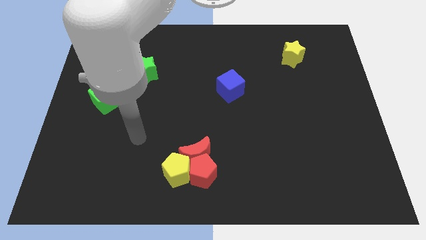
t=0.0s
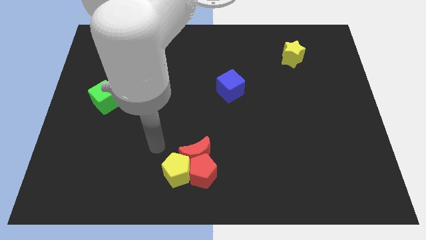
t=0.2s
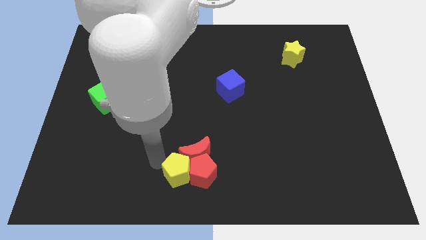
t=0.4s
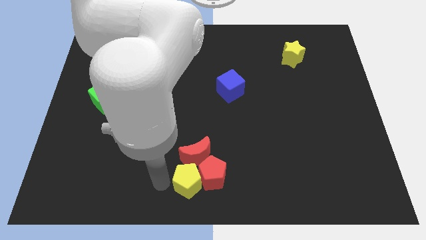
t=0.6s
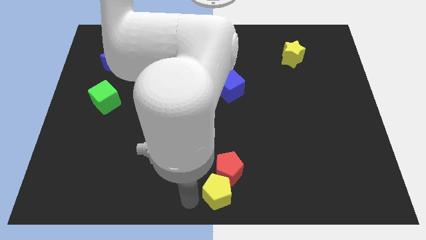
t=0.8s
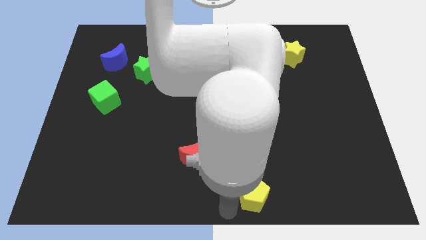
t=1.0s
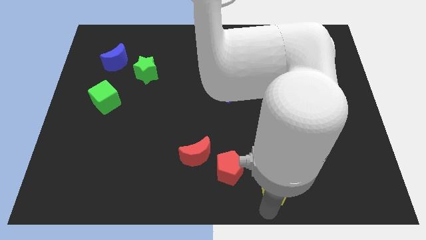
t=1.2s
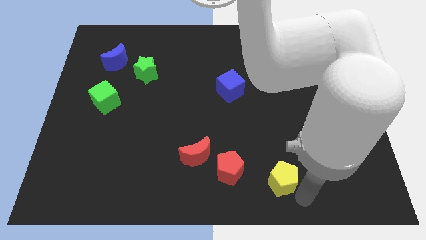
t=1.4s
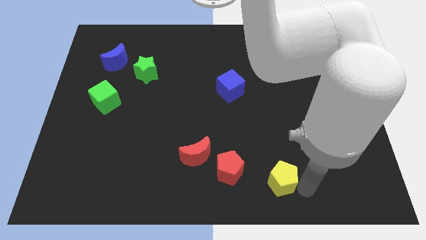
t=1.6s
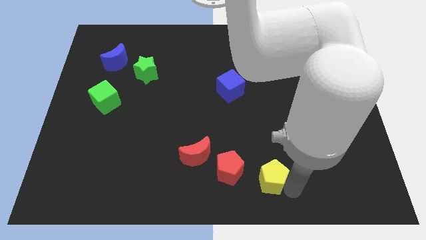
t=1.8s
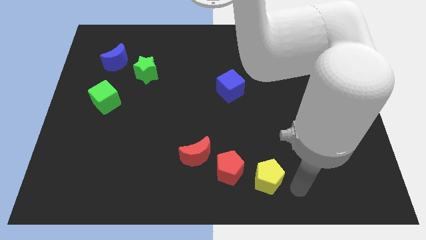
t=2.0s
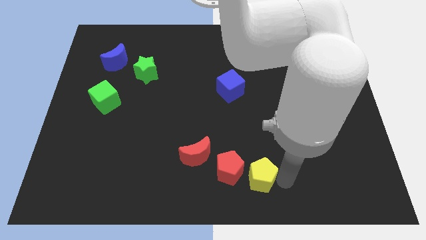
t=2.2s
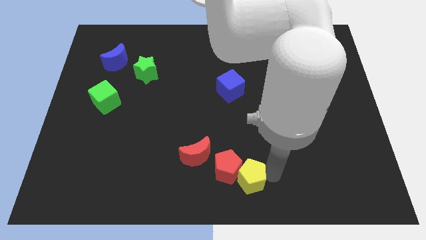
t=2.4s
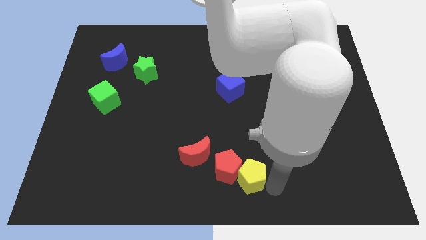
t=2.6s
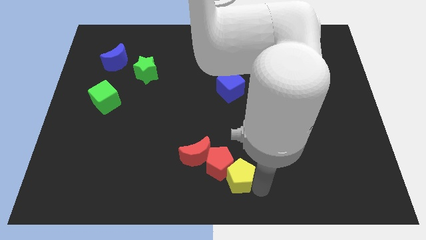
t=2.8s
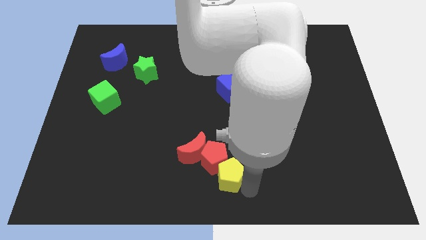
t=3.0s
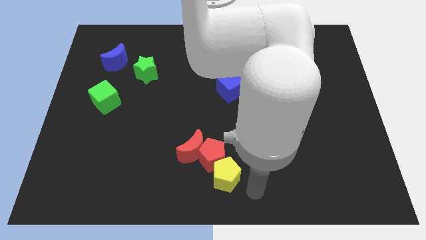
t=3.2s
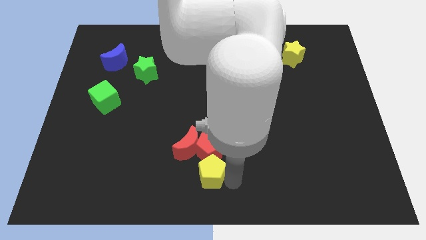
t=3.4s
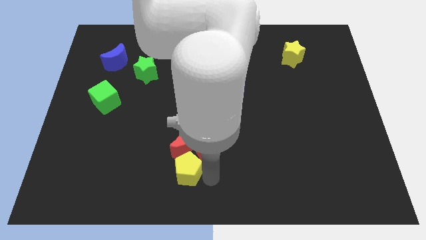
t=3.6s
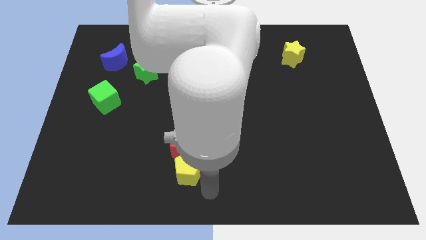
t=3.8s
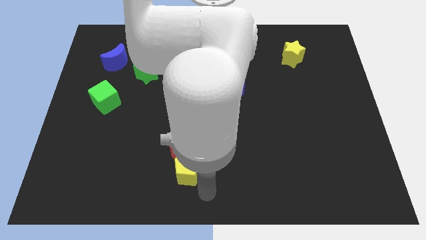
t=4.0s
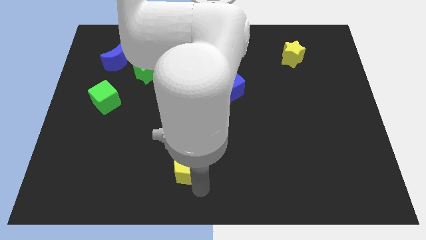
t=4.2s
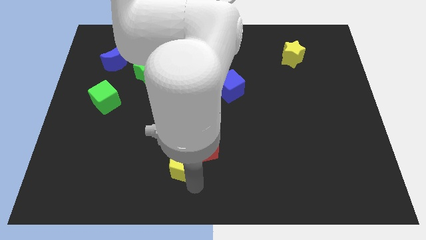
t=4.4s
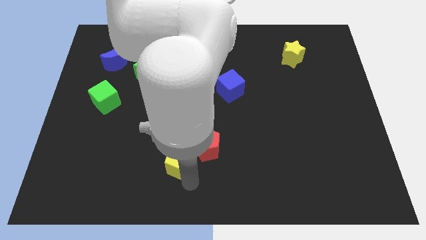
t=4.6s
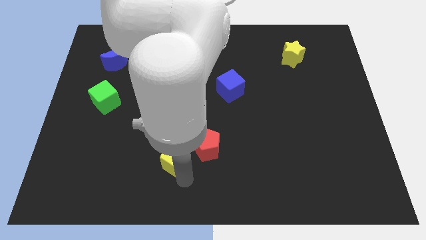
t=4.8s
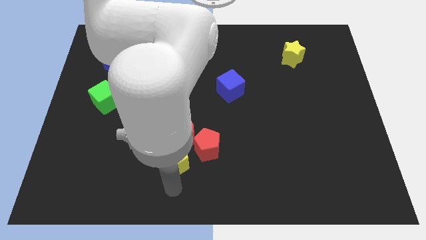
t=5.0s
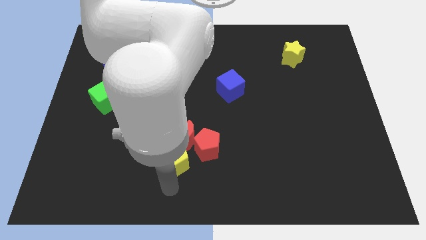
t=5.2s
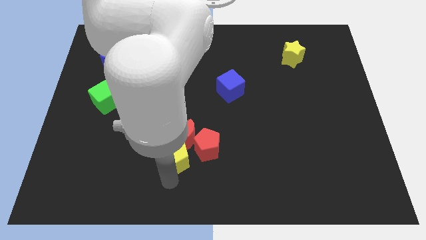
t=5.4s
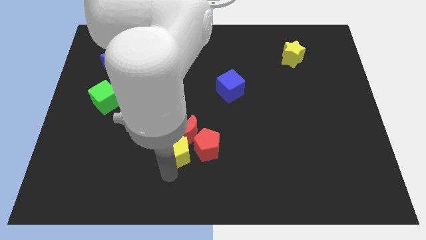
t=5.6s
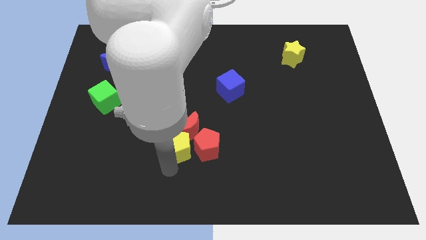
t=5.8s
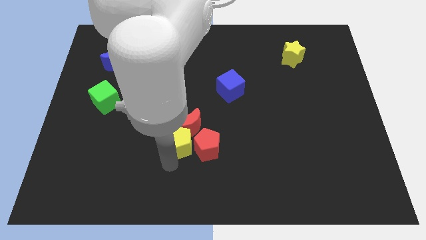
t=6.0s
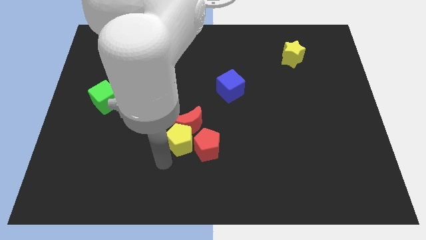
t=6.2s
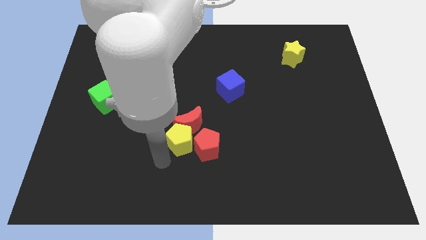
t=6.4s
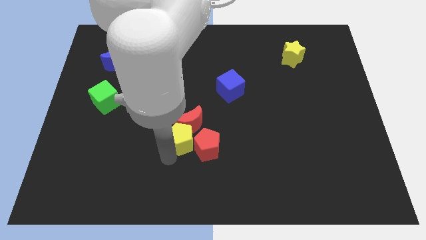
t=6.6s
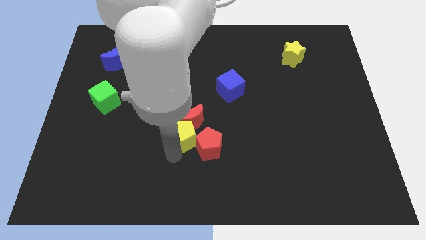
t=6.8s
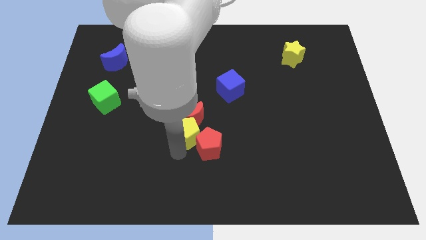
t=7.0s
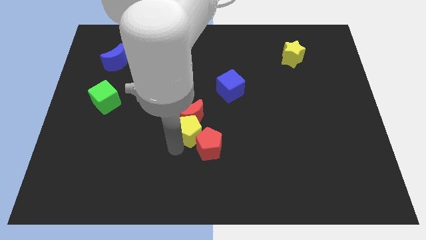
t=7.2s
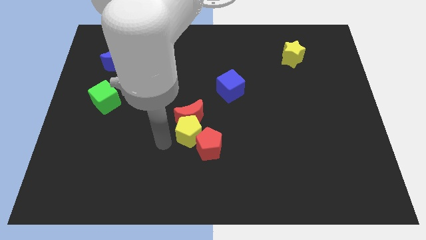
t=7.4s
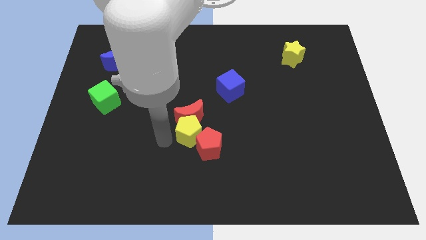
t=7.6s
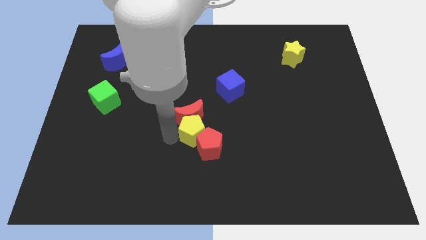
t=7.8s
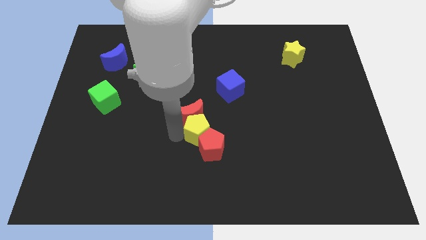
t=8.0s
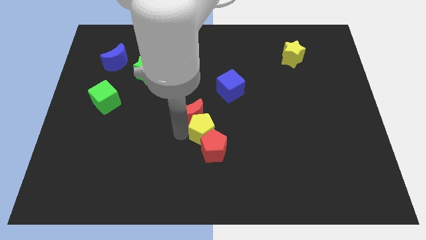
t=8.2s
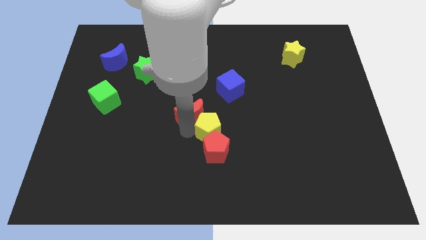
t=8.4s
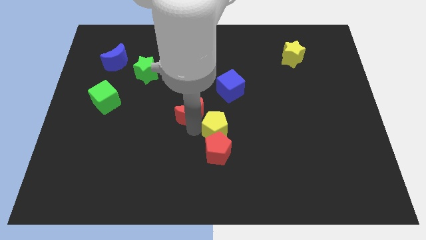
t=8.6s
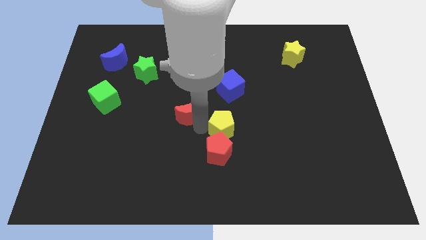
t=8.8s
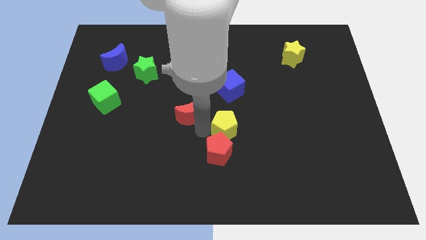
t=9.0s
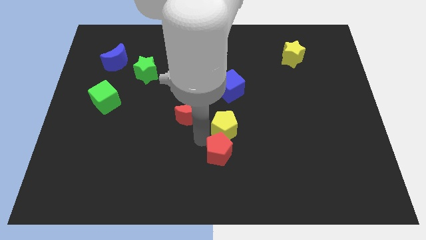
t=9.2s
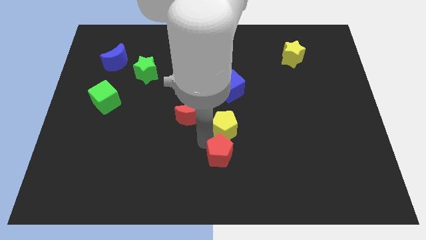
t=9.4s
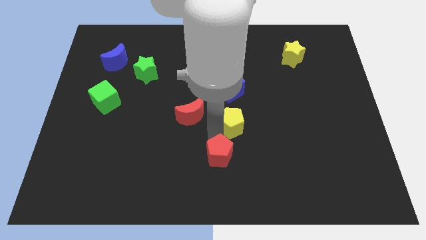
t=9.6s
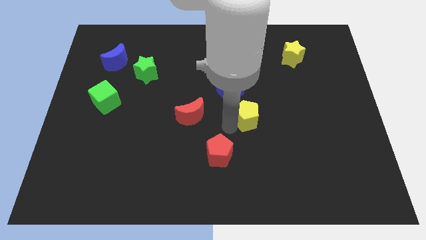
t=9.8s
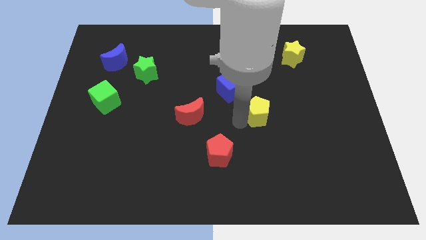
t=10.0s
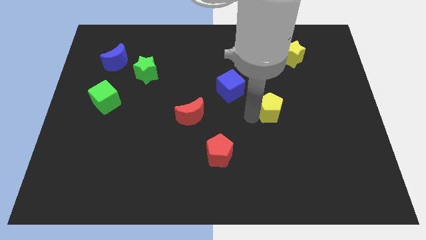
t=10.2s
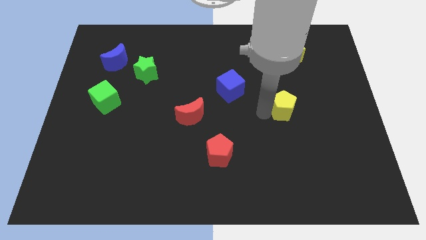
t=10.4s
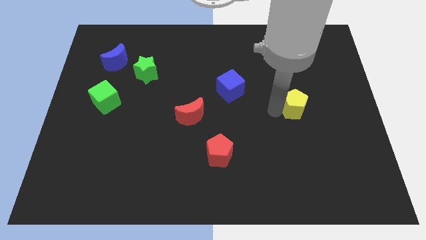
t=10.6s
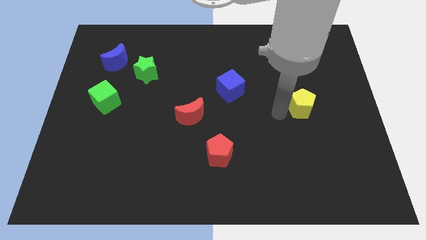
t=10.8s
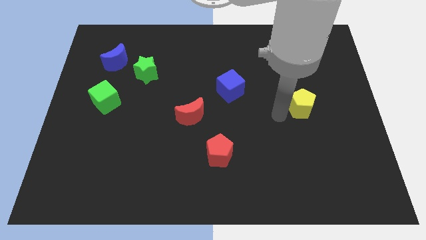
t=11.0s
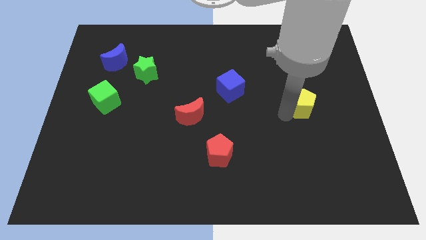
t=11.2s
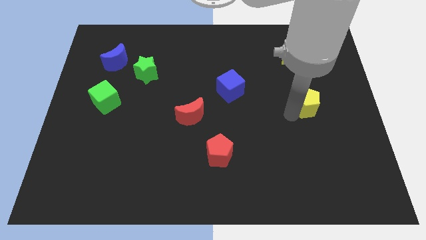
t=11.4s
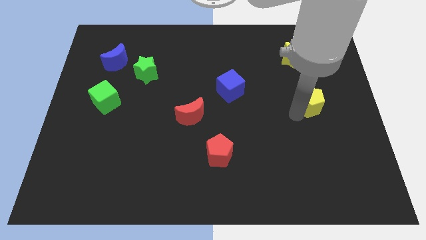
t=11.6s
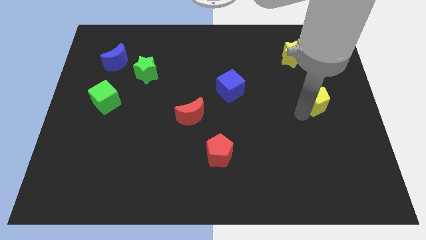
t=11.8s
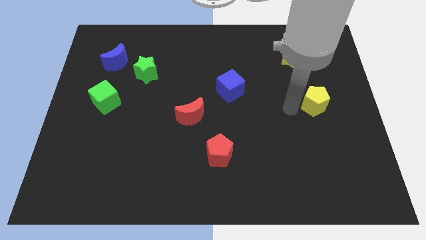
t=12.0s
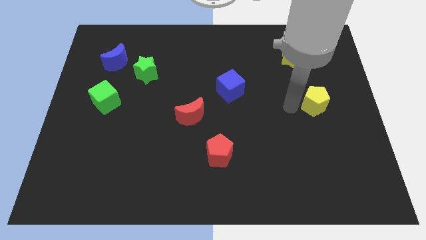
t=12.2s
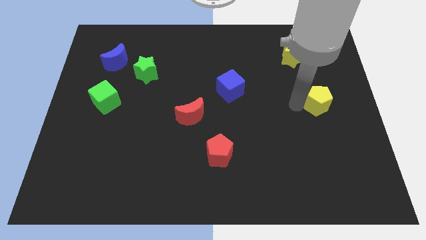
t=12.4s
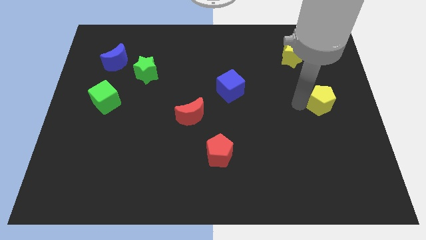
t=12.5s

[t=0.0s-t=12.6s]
push the yellow pentagon to the right side
